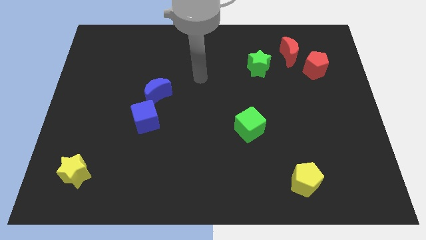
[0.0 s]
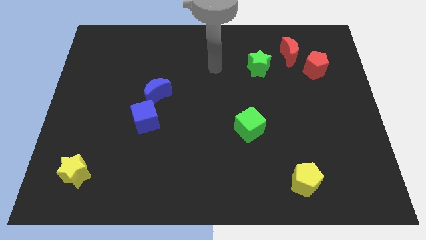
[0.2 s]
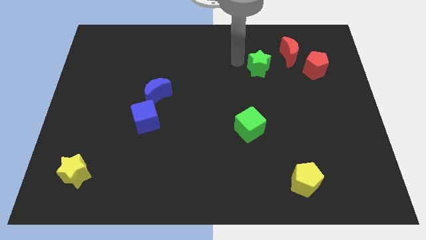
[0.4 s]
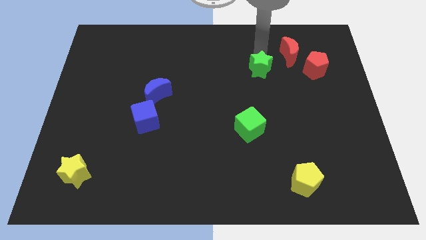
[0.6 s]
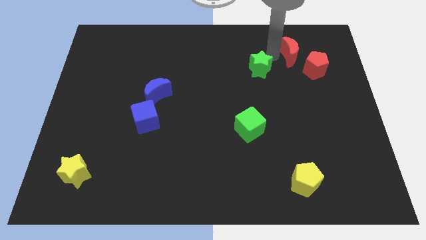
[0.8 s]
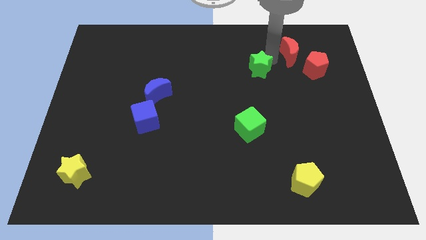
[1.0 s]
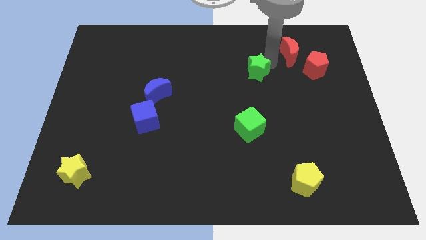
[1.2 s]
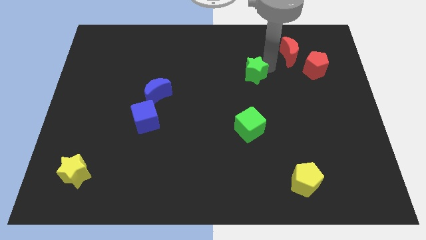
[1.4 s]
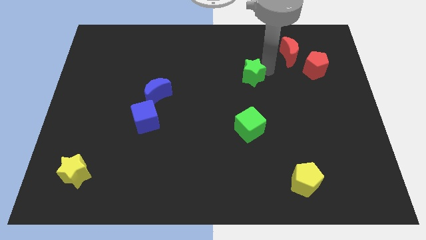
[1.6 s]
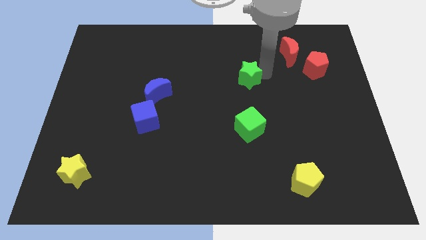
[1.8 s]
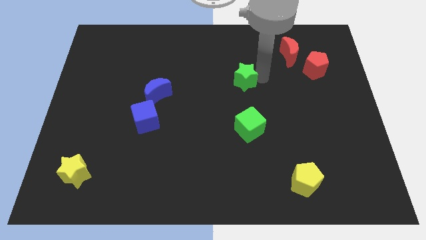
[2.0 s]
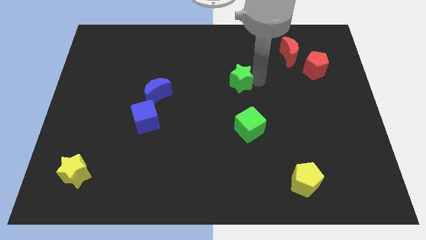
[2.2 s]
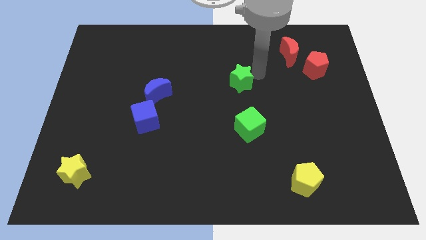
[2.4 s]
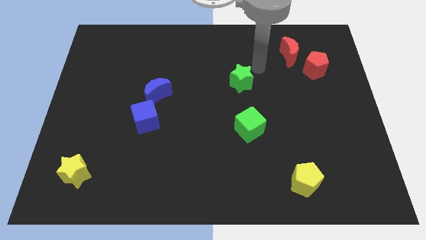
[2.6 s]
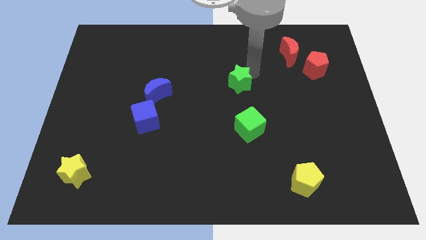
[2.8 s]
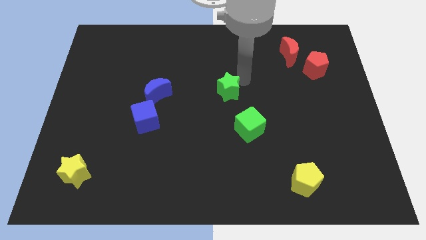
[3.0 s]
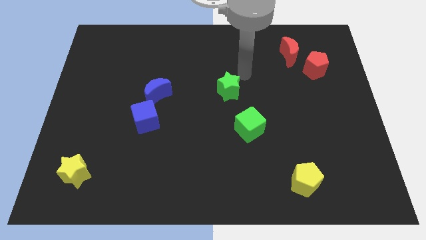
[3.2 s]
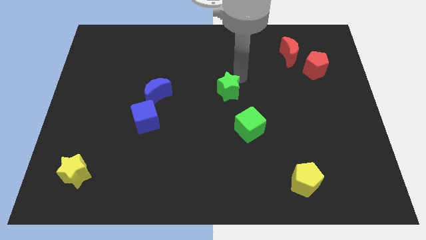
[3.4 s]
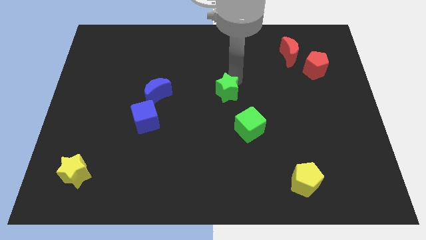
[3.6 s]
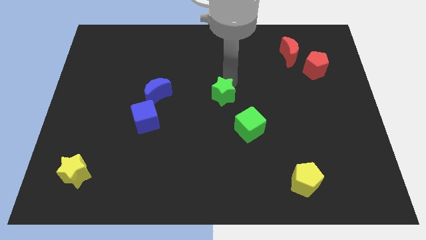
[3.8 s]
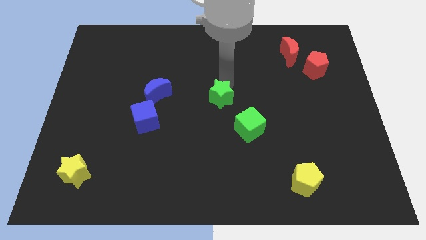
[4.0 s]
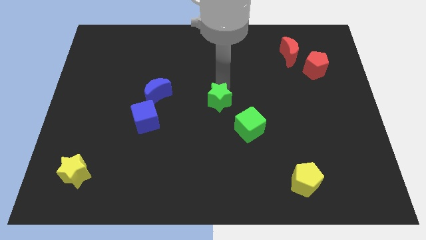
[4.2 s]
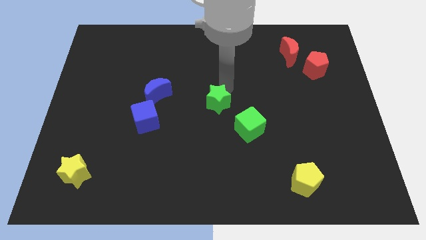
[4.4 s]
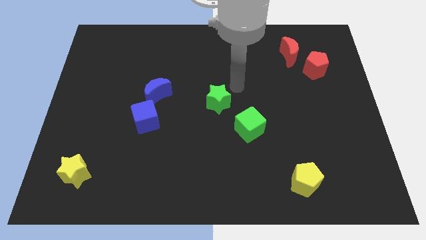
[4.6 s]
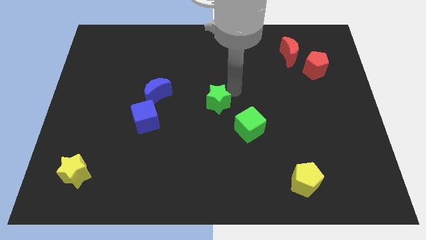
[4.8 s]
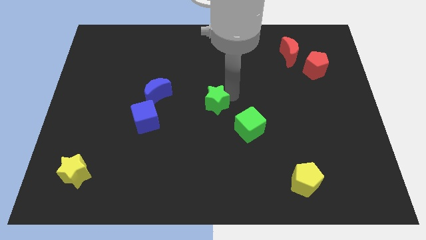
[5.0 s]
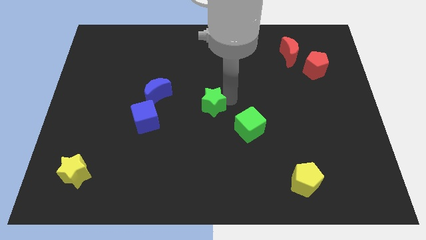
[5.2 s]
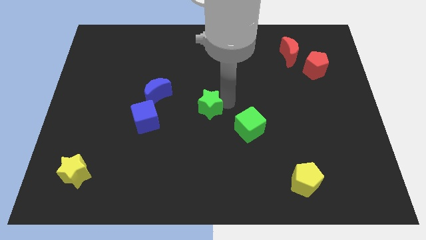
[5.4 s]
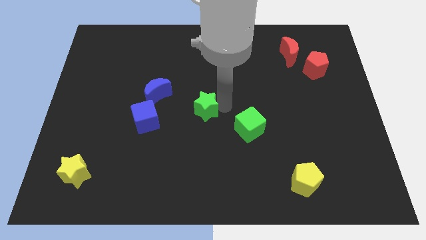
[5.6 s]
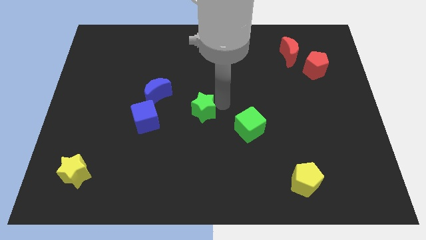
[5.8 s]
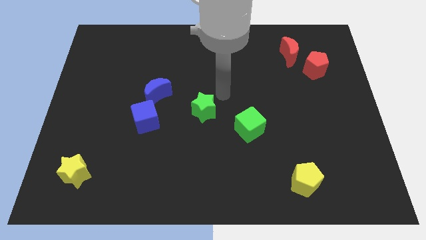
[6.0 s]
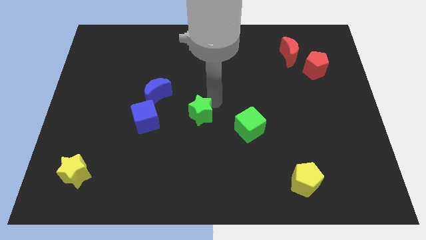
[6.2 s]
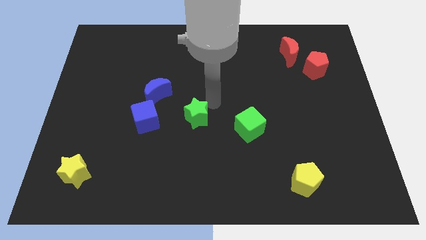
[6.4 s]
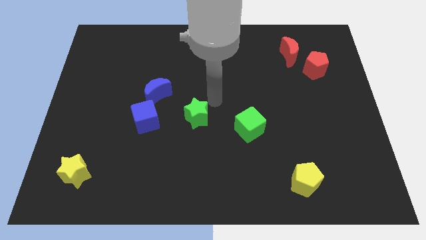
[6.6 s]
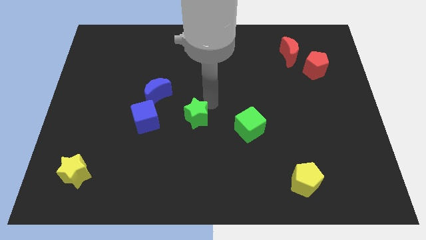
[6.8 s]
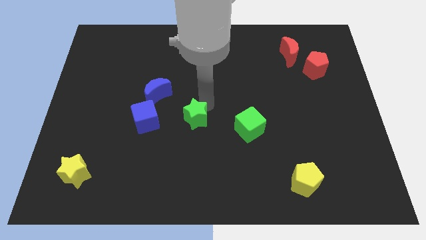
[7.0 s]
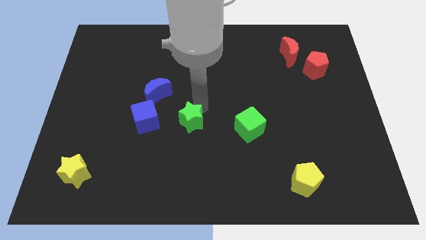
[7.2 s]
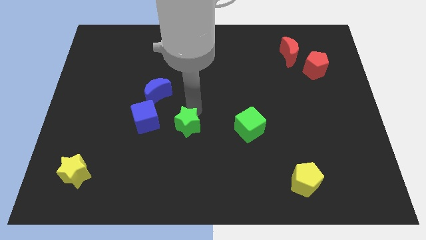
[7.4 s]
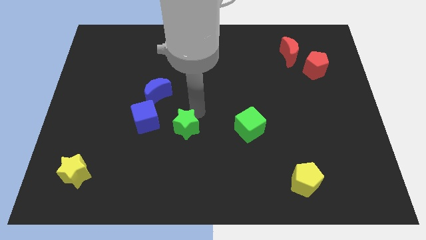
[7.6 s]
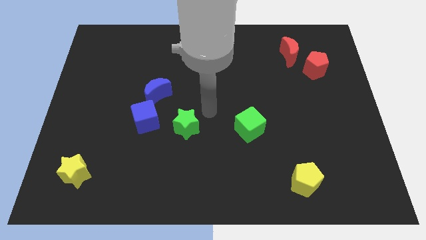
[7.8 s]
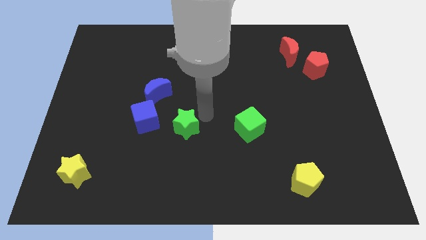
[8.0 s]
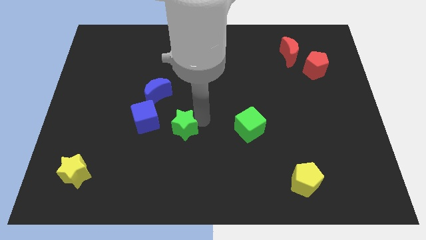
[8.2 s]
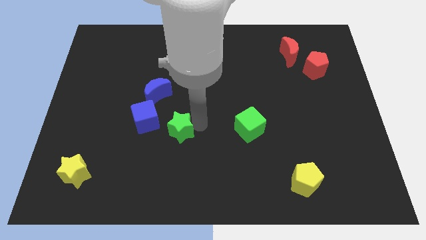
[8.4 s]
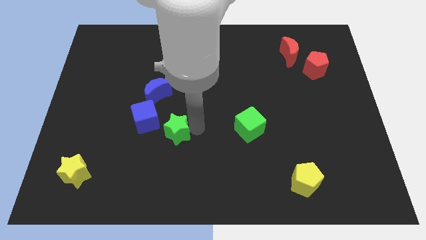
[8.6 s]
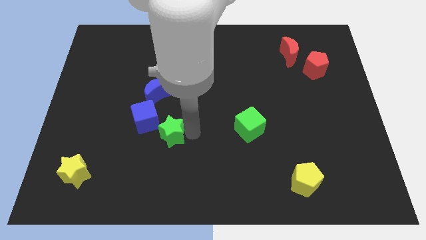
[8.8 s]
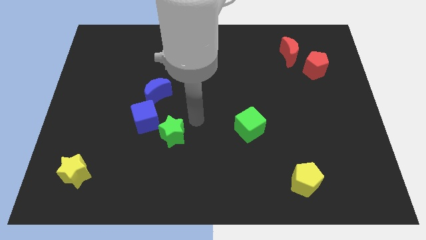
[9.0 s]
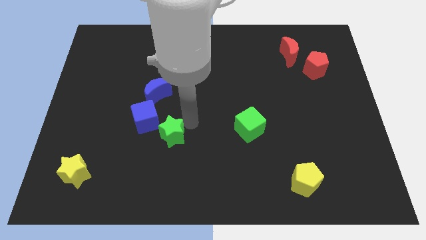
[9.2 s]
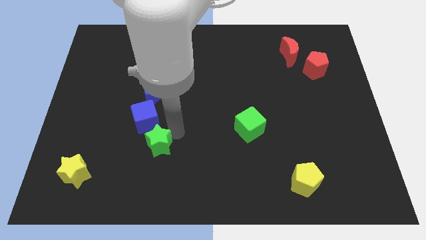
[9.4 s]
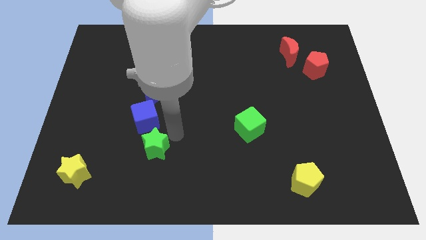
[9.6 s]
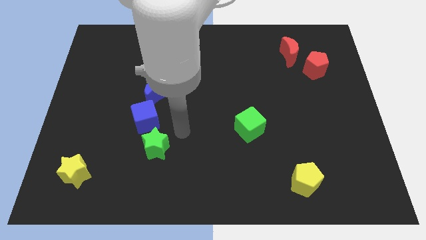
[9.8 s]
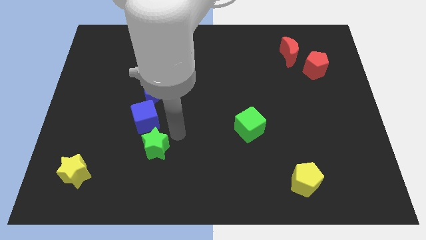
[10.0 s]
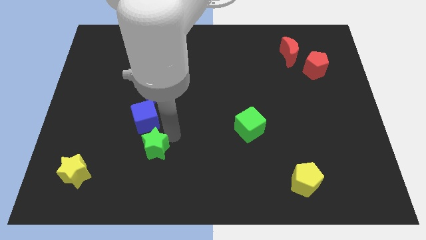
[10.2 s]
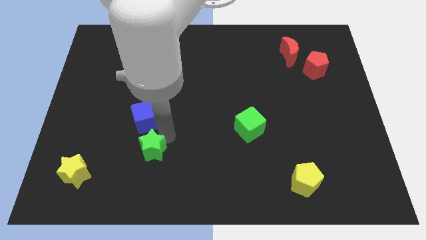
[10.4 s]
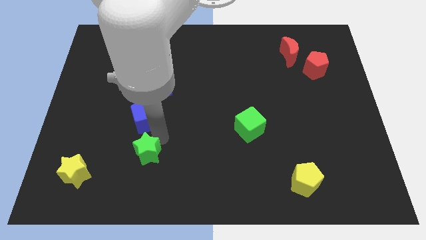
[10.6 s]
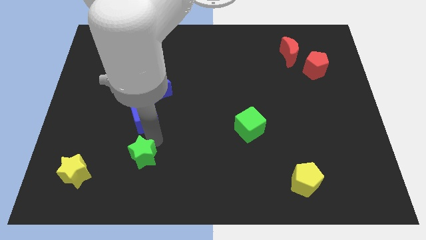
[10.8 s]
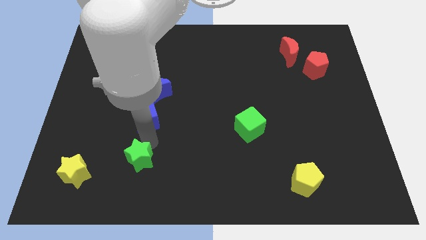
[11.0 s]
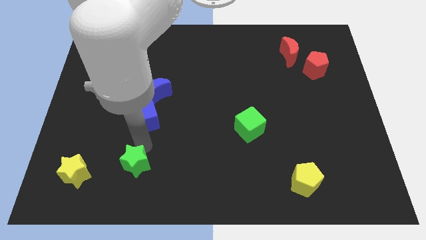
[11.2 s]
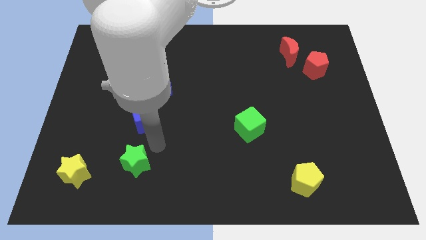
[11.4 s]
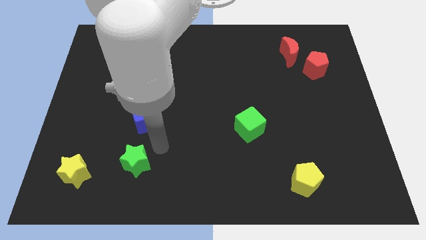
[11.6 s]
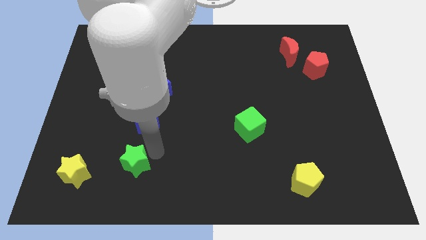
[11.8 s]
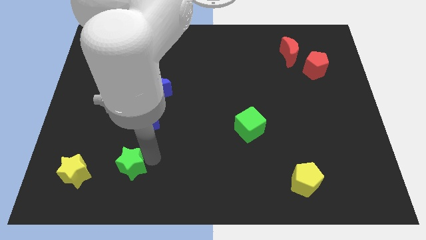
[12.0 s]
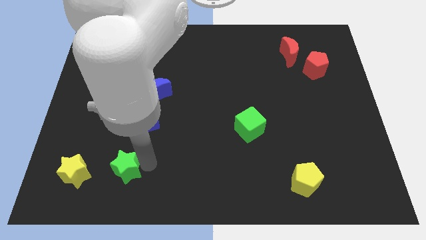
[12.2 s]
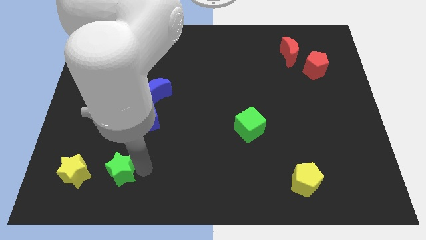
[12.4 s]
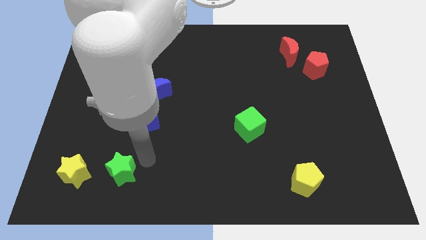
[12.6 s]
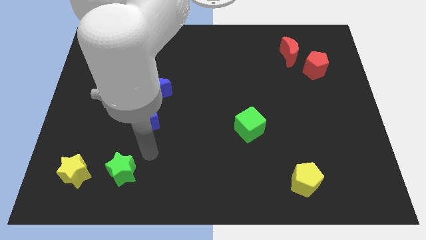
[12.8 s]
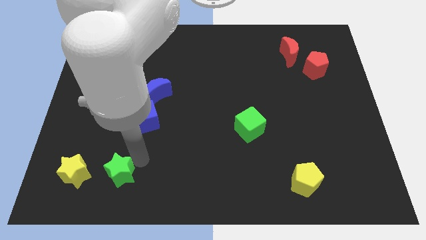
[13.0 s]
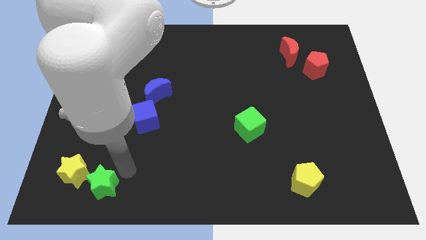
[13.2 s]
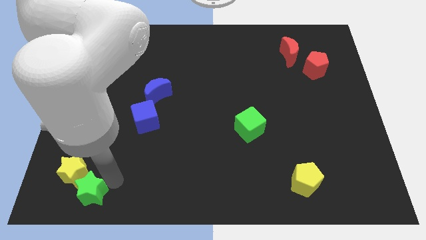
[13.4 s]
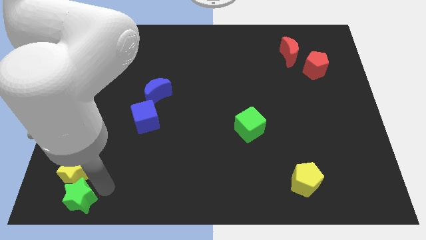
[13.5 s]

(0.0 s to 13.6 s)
push the green star to the bottom left

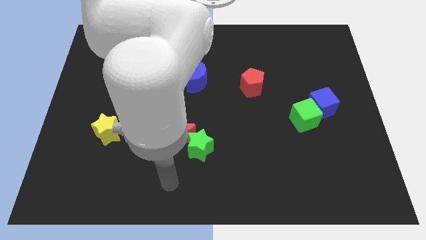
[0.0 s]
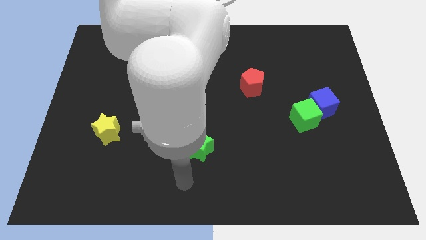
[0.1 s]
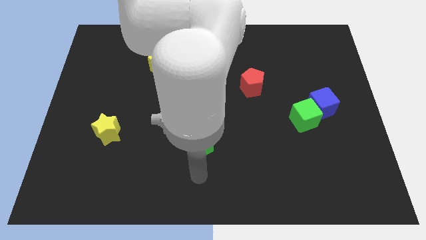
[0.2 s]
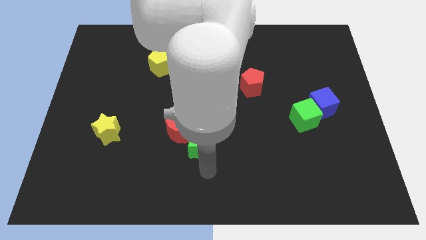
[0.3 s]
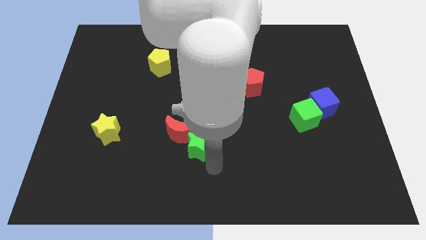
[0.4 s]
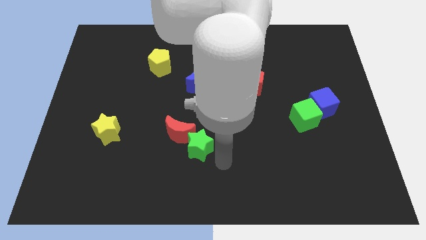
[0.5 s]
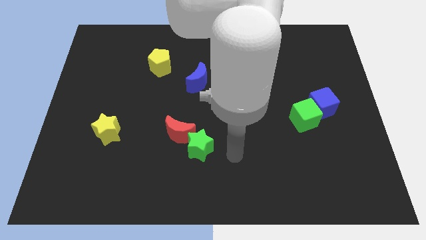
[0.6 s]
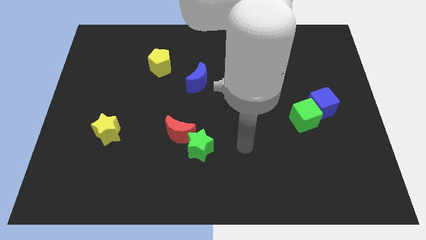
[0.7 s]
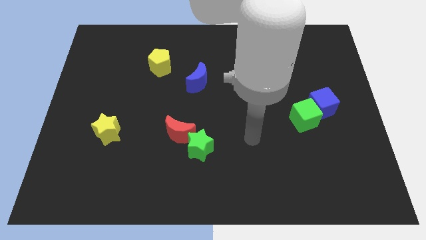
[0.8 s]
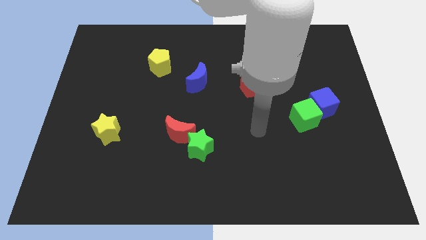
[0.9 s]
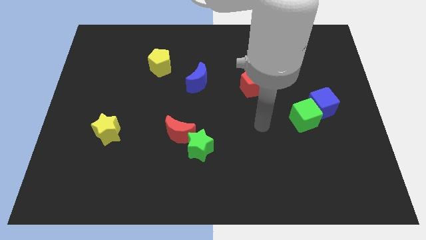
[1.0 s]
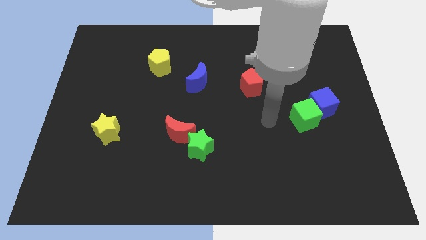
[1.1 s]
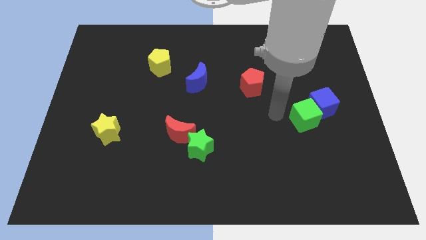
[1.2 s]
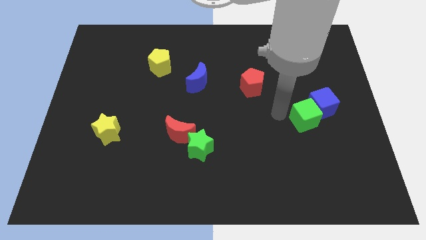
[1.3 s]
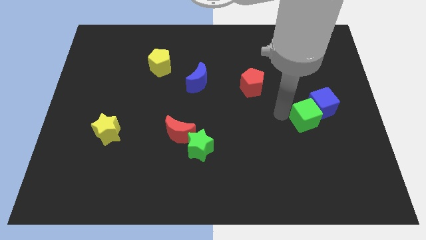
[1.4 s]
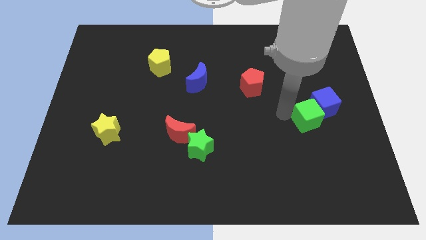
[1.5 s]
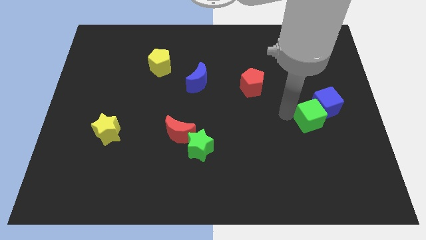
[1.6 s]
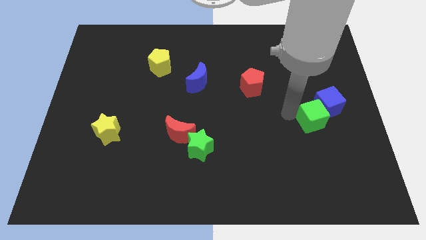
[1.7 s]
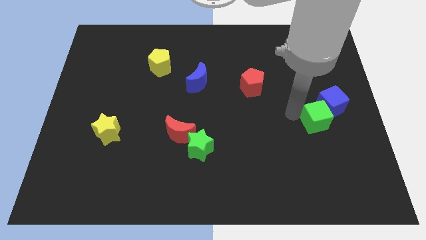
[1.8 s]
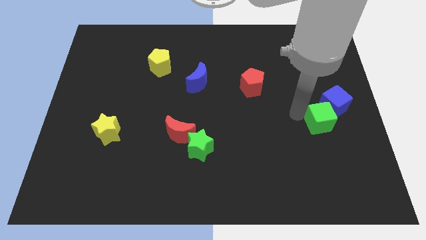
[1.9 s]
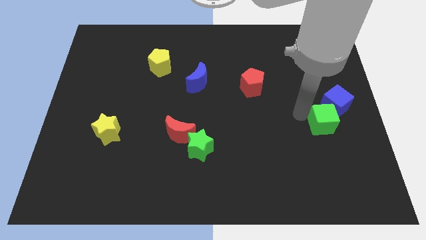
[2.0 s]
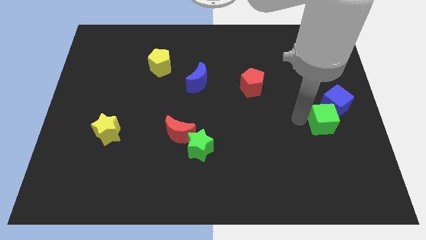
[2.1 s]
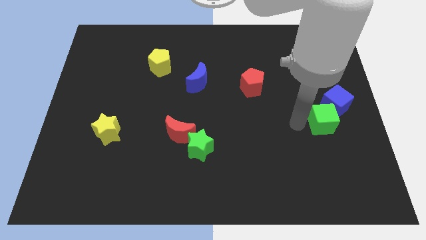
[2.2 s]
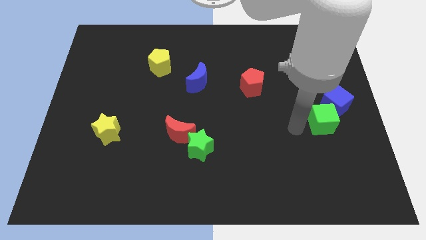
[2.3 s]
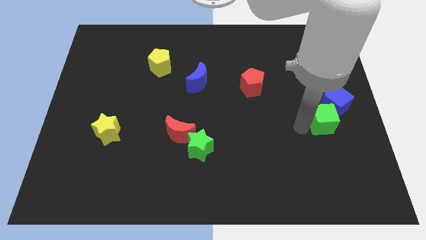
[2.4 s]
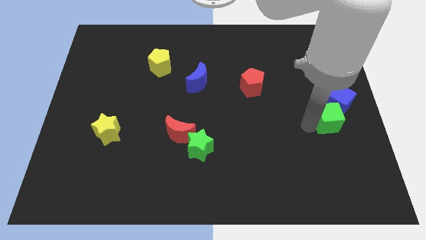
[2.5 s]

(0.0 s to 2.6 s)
slide the green cube to the center right
